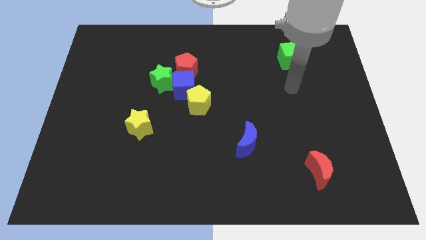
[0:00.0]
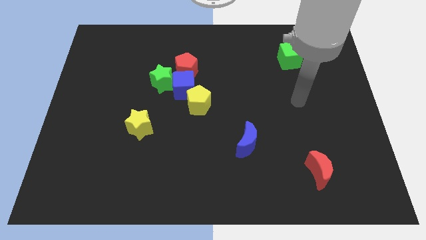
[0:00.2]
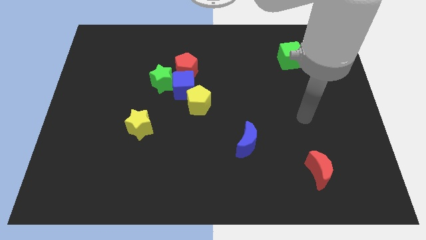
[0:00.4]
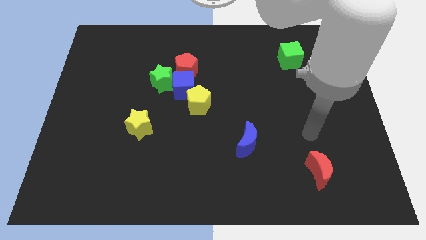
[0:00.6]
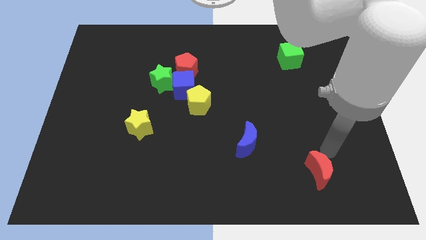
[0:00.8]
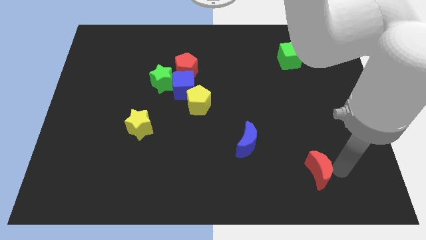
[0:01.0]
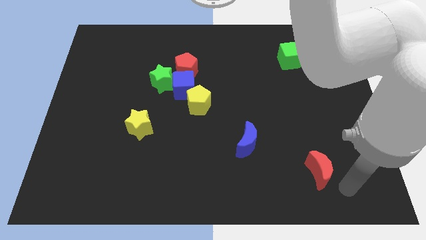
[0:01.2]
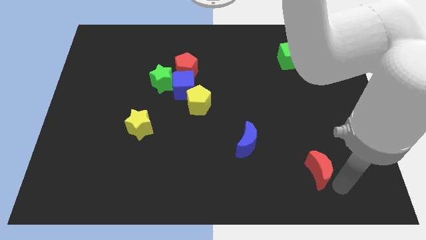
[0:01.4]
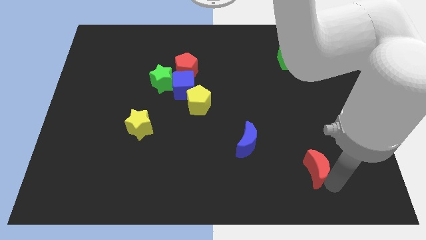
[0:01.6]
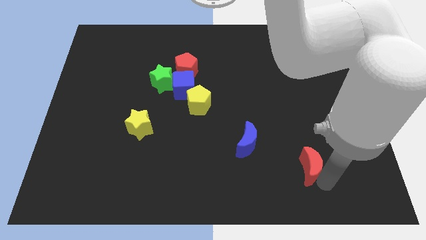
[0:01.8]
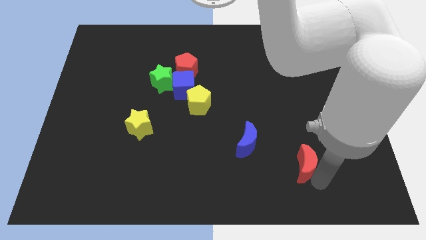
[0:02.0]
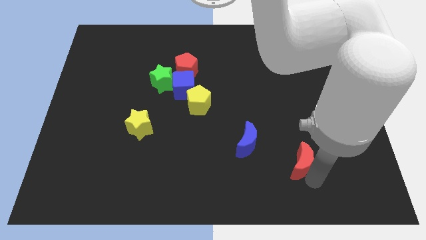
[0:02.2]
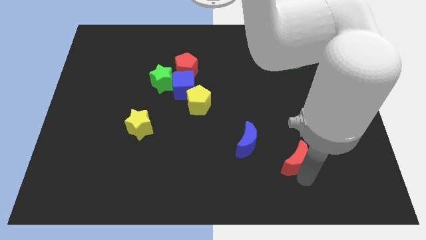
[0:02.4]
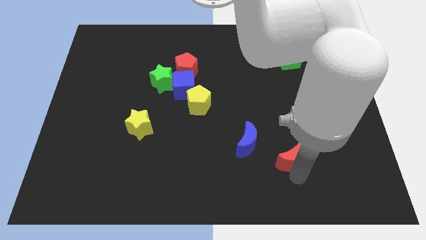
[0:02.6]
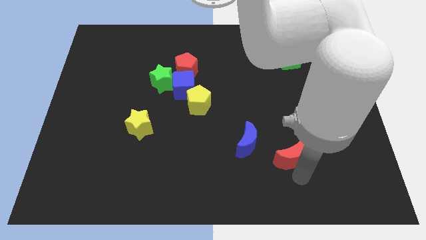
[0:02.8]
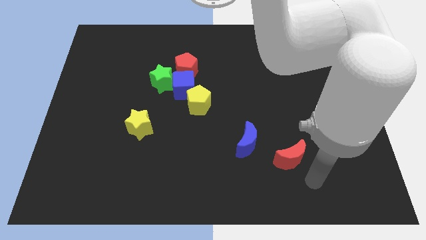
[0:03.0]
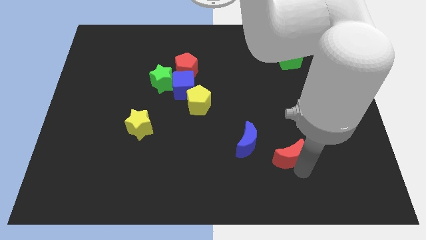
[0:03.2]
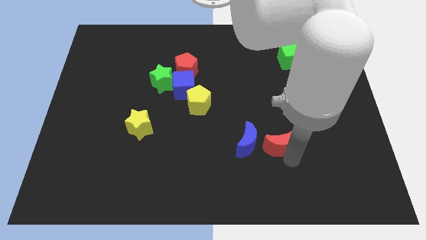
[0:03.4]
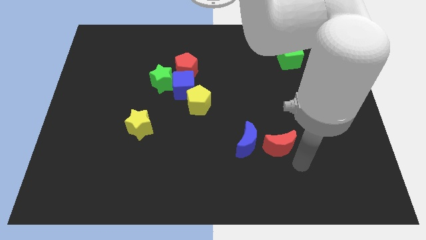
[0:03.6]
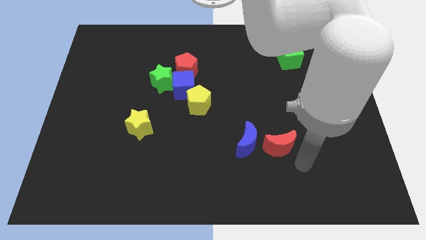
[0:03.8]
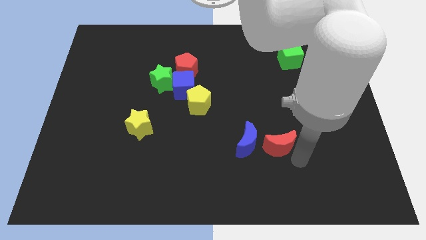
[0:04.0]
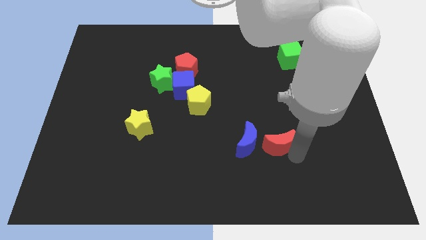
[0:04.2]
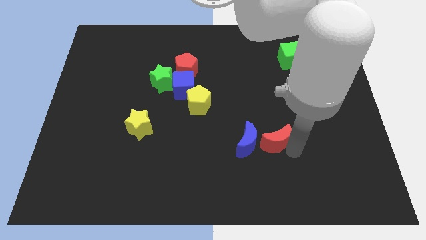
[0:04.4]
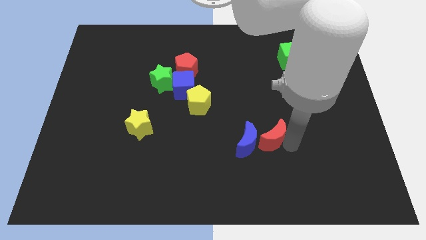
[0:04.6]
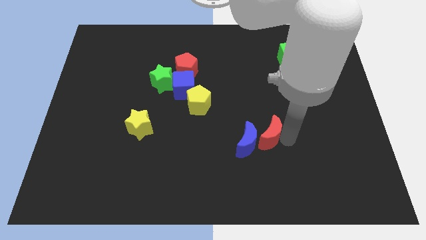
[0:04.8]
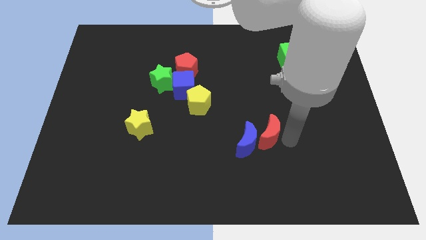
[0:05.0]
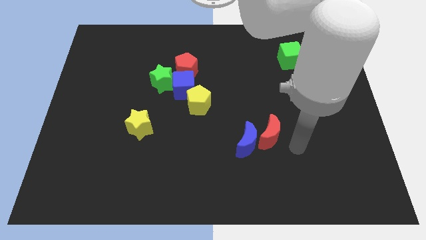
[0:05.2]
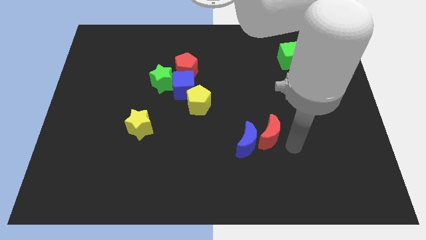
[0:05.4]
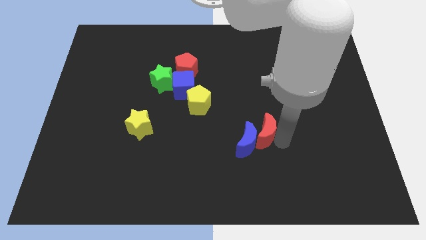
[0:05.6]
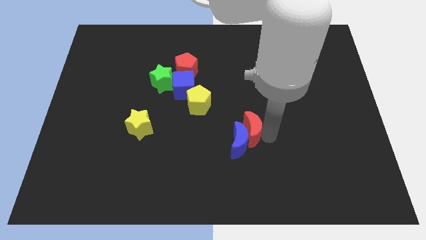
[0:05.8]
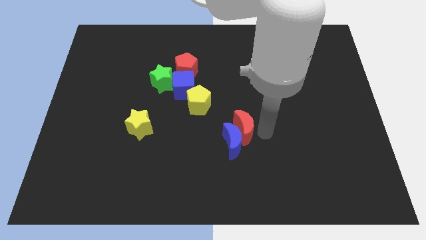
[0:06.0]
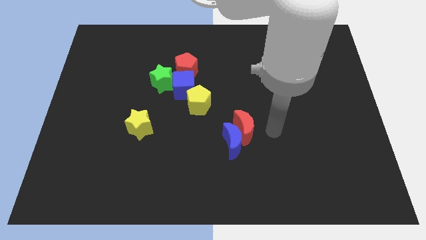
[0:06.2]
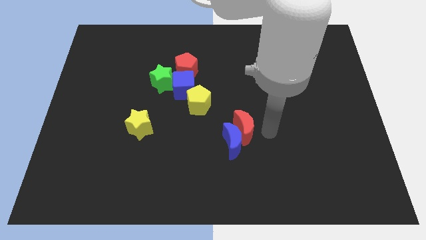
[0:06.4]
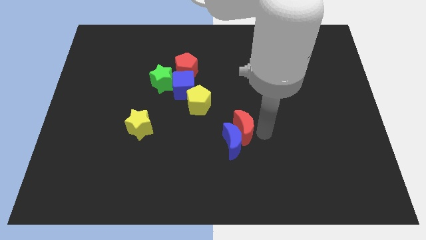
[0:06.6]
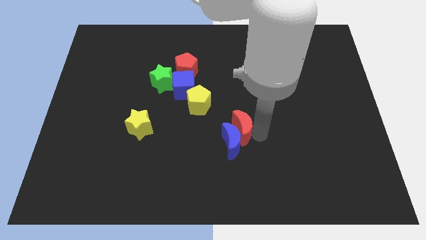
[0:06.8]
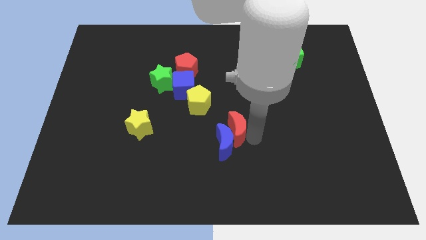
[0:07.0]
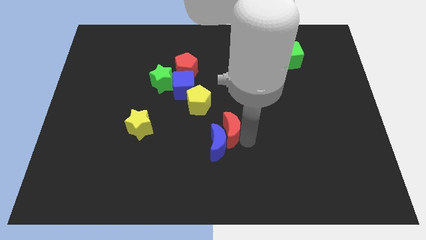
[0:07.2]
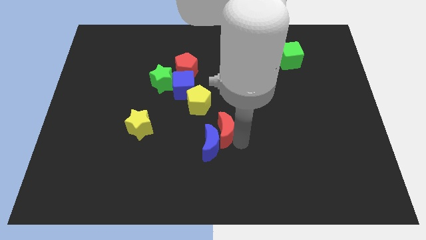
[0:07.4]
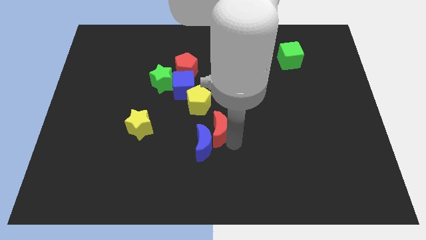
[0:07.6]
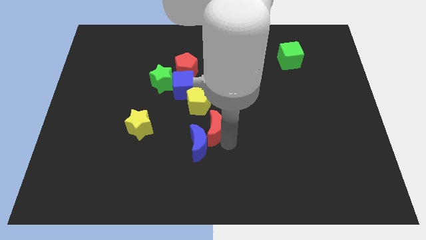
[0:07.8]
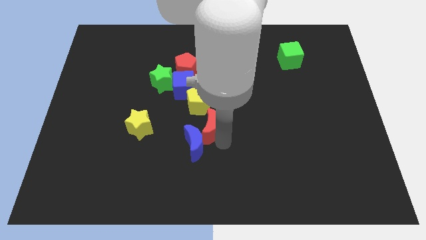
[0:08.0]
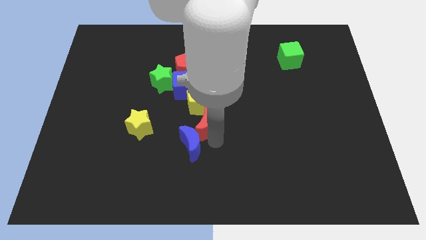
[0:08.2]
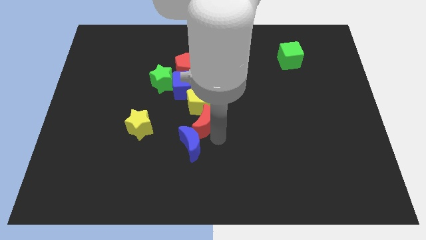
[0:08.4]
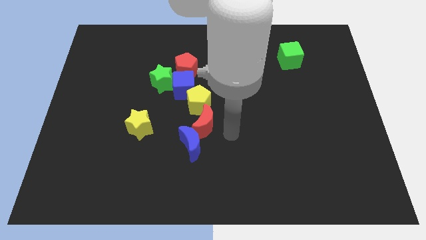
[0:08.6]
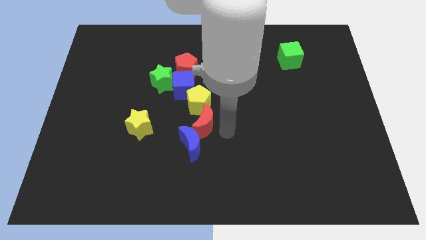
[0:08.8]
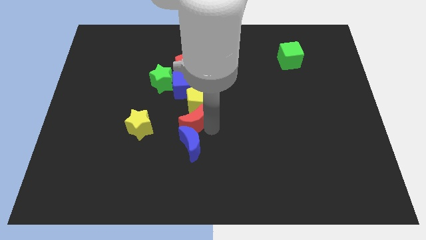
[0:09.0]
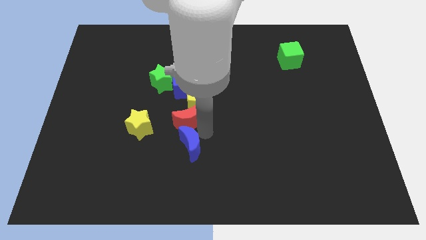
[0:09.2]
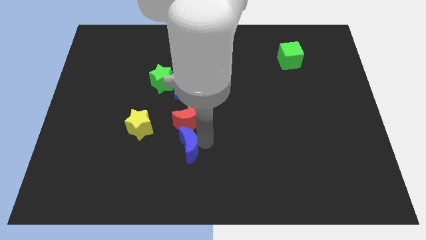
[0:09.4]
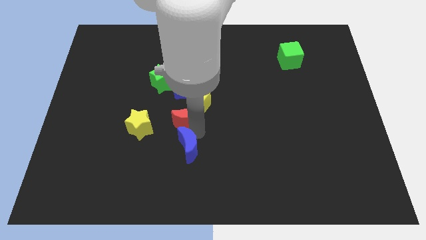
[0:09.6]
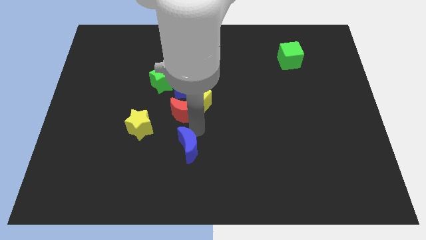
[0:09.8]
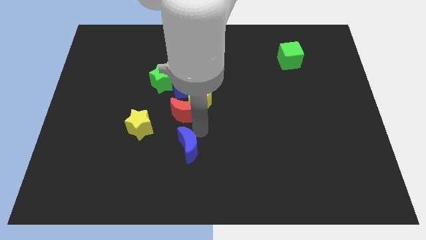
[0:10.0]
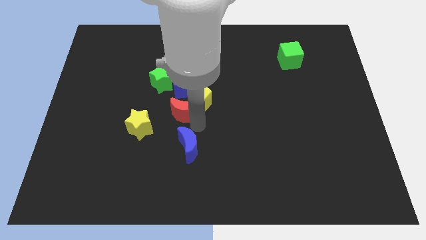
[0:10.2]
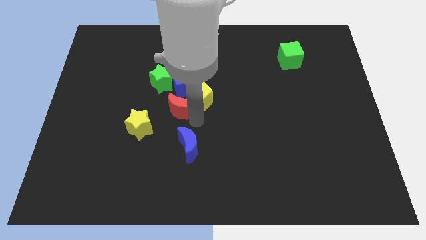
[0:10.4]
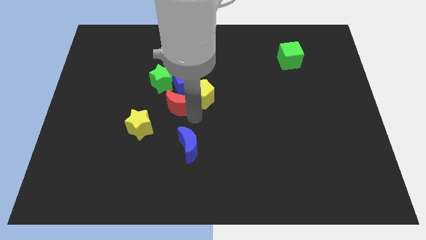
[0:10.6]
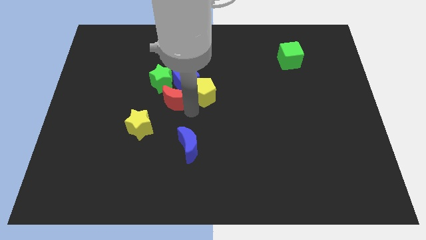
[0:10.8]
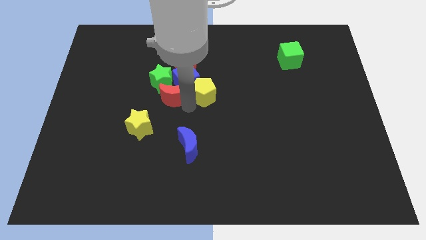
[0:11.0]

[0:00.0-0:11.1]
push the red moon to the green star

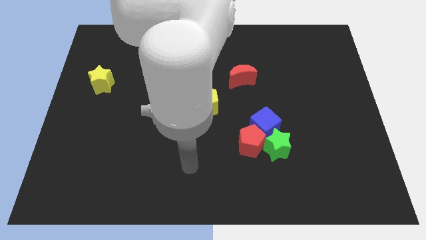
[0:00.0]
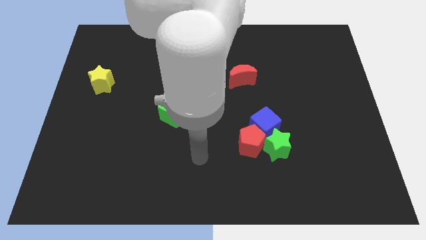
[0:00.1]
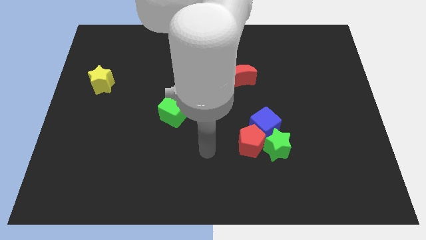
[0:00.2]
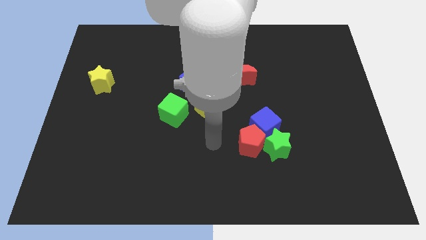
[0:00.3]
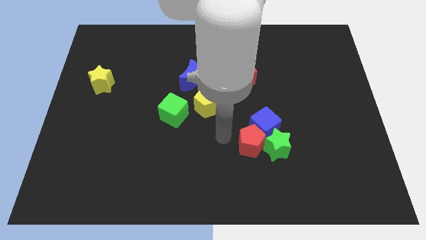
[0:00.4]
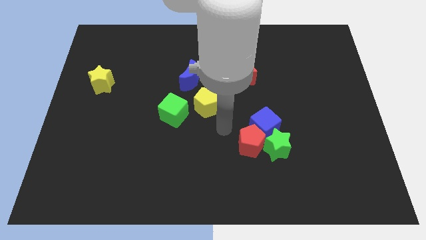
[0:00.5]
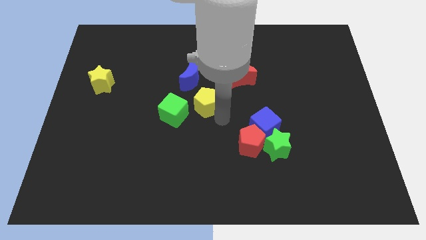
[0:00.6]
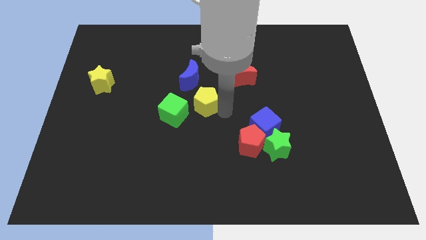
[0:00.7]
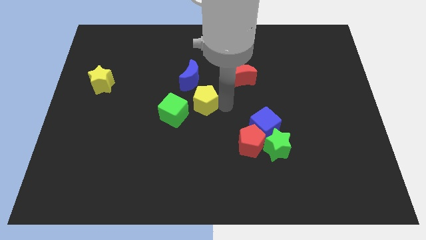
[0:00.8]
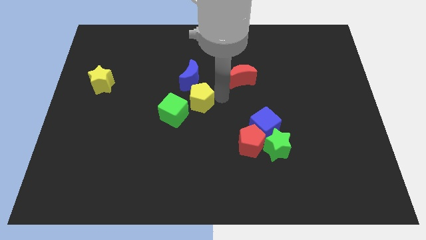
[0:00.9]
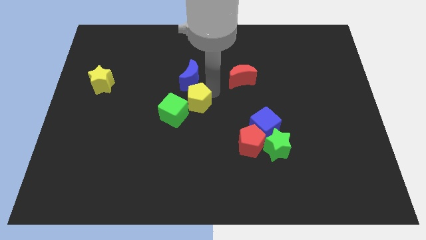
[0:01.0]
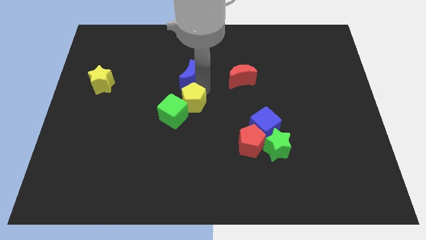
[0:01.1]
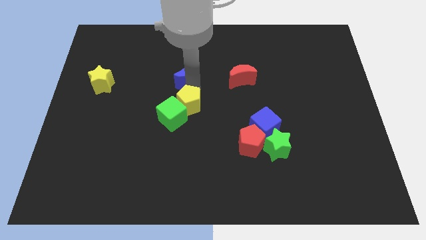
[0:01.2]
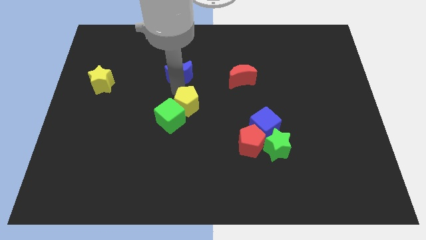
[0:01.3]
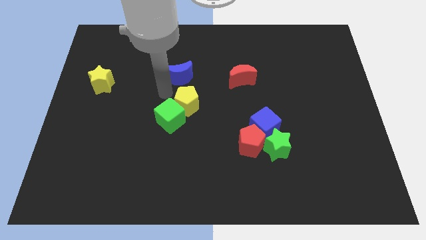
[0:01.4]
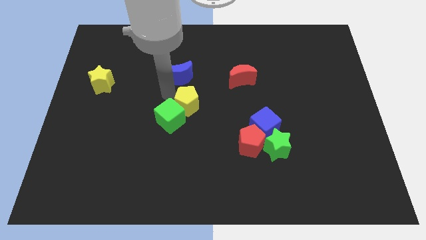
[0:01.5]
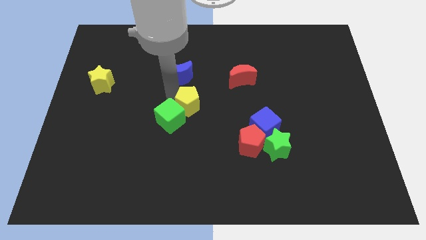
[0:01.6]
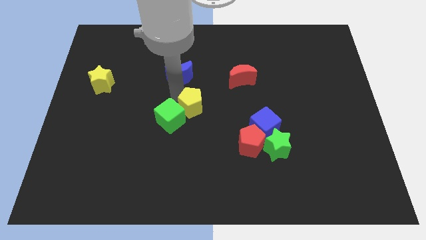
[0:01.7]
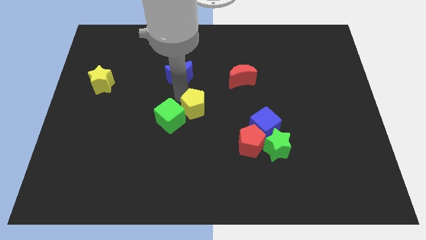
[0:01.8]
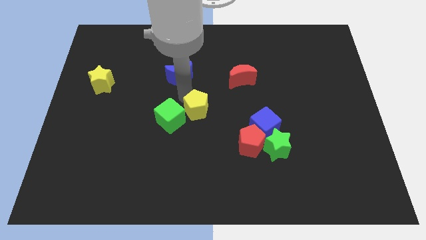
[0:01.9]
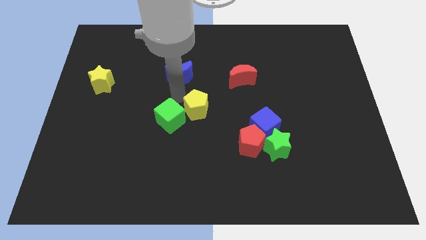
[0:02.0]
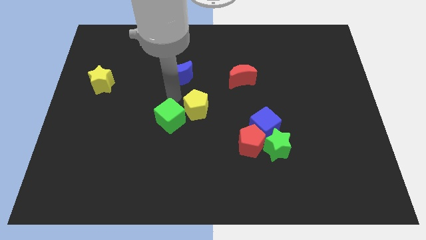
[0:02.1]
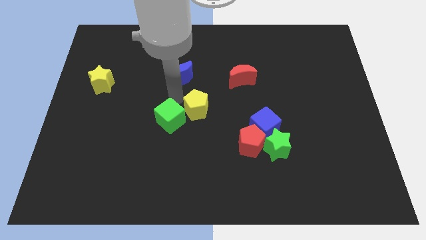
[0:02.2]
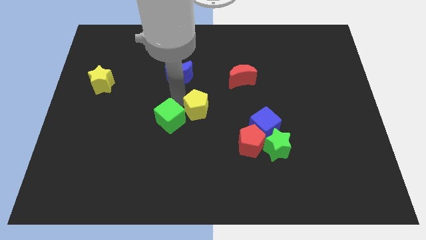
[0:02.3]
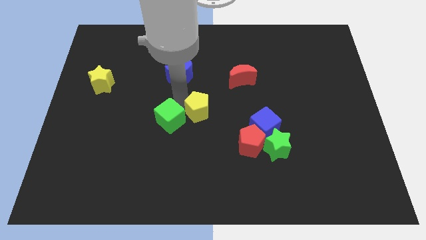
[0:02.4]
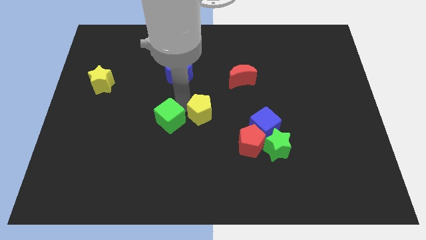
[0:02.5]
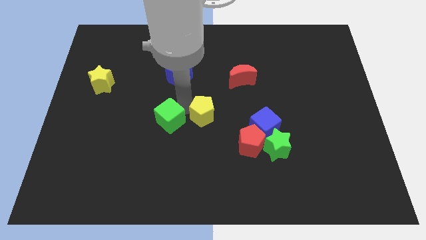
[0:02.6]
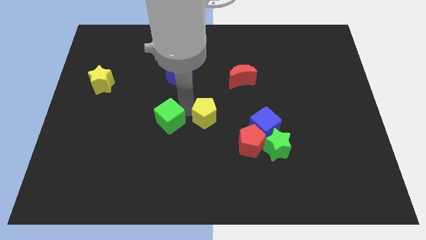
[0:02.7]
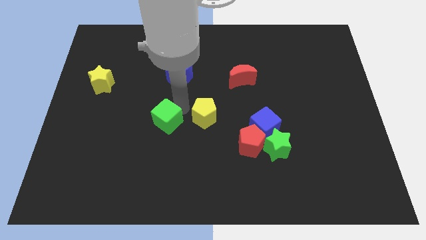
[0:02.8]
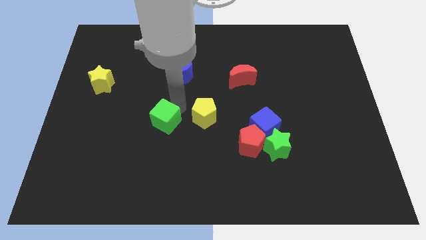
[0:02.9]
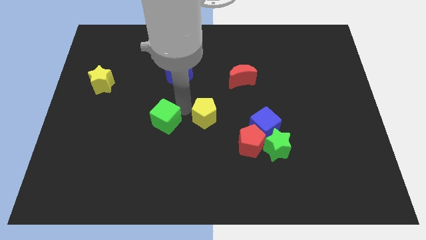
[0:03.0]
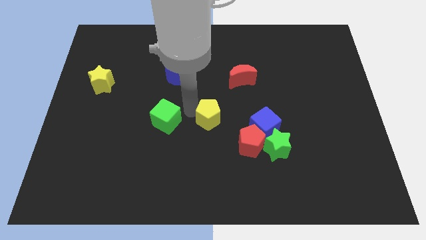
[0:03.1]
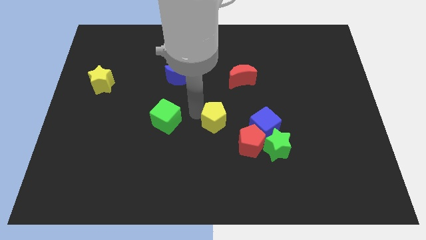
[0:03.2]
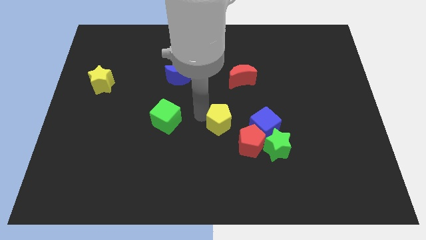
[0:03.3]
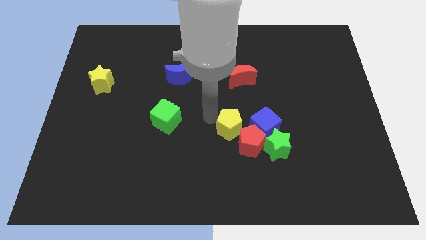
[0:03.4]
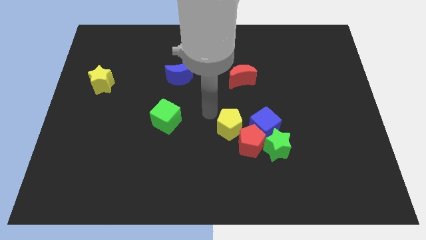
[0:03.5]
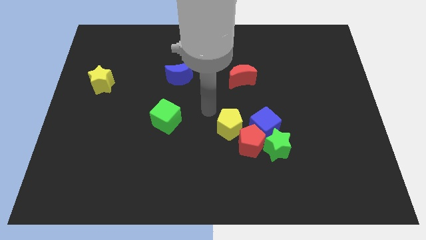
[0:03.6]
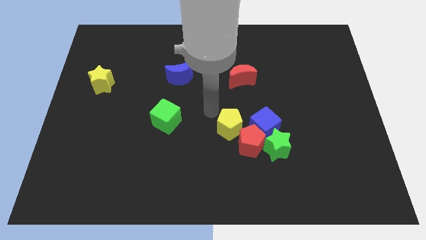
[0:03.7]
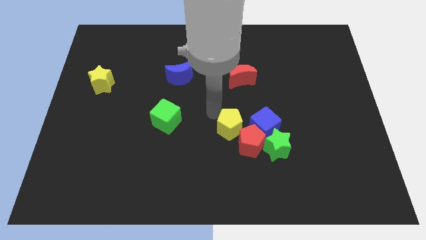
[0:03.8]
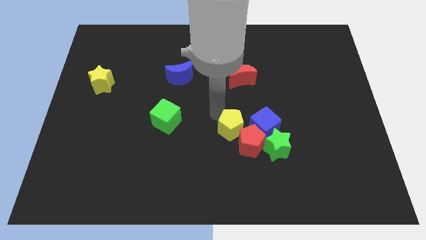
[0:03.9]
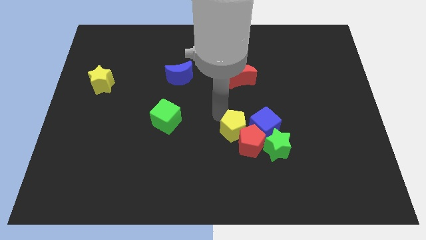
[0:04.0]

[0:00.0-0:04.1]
move the yellow pentagon to the red pentagon
